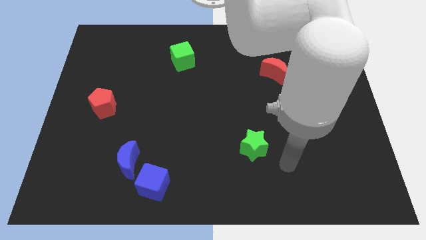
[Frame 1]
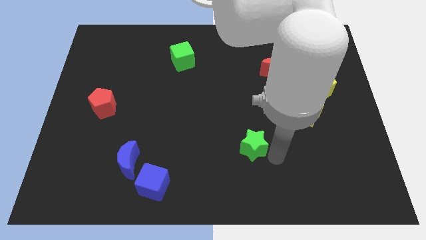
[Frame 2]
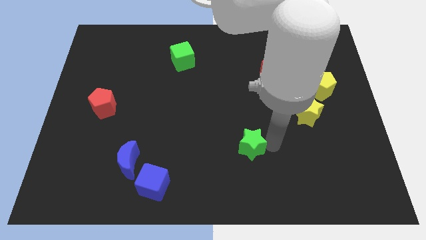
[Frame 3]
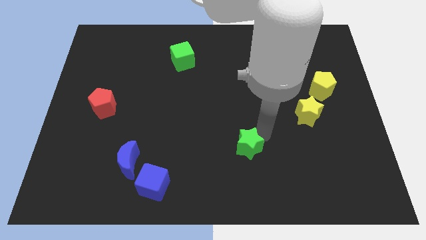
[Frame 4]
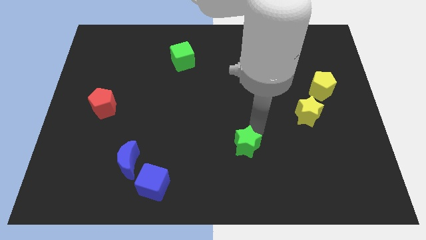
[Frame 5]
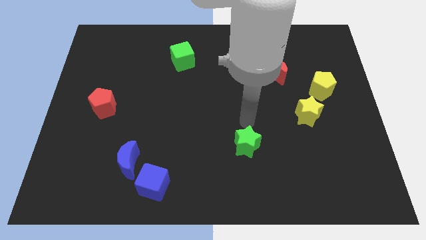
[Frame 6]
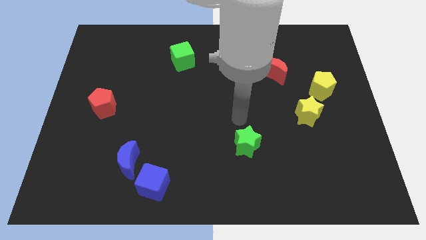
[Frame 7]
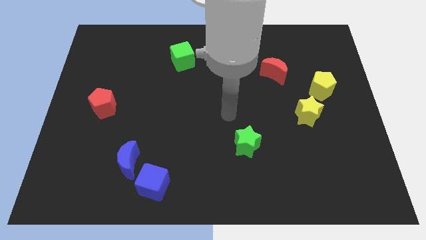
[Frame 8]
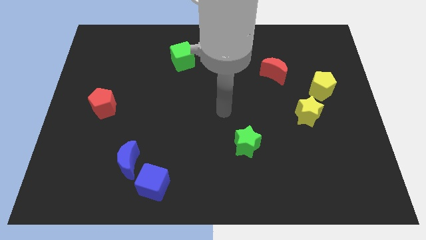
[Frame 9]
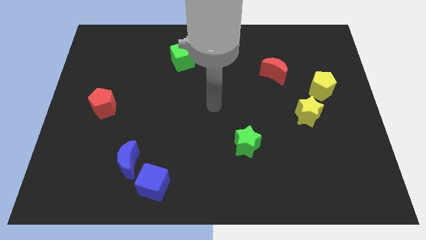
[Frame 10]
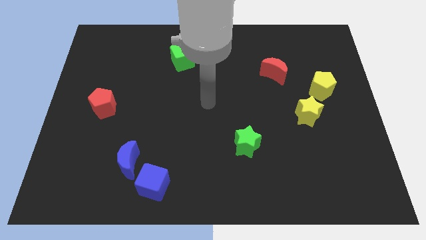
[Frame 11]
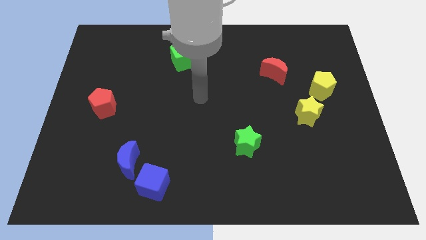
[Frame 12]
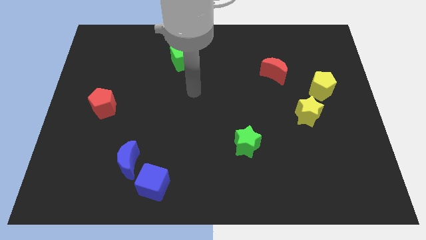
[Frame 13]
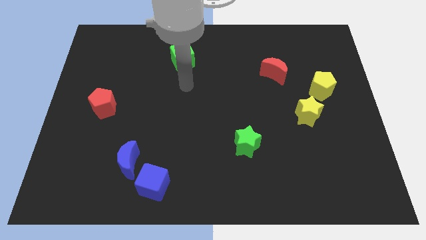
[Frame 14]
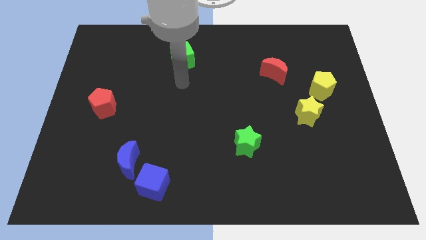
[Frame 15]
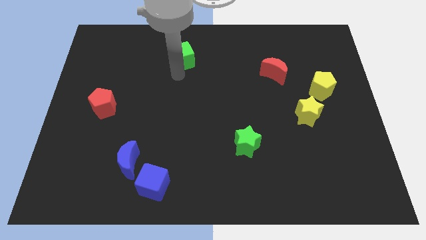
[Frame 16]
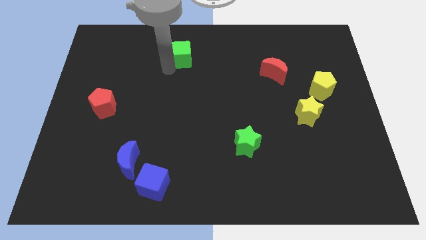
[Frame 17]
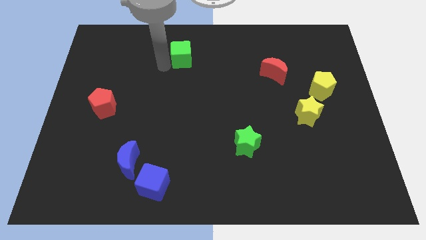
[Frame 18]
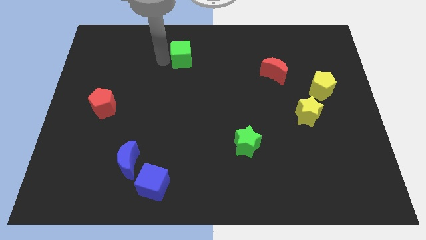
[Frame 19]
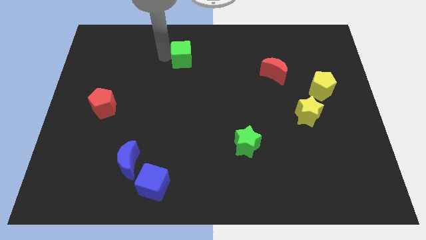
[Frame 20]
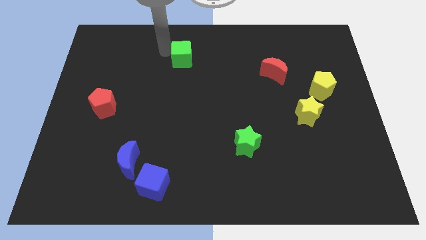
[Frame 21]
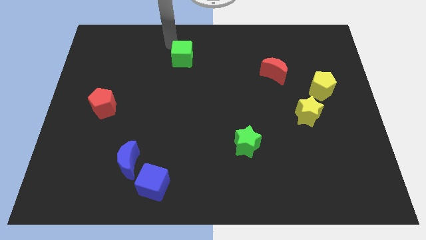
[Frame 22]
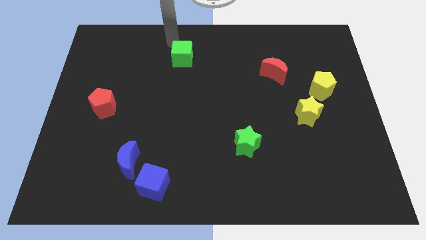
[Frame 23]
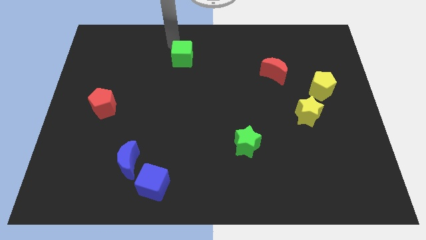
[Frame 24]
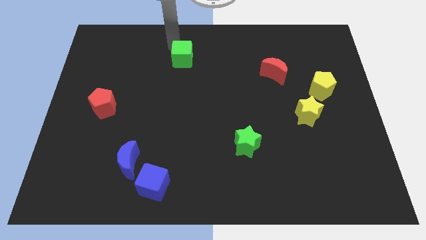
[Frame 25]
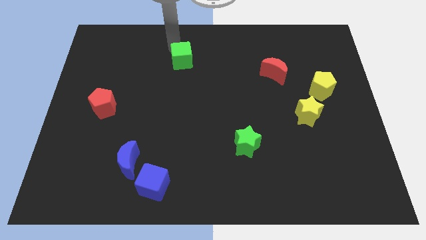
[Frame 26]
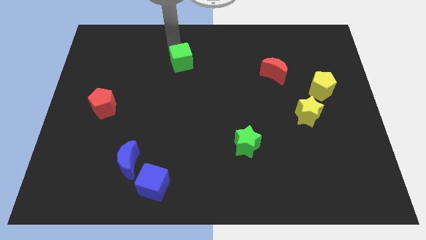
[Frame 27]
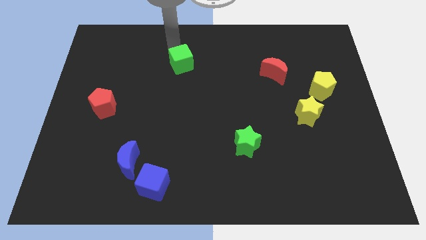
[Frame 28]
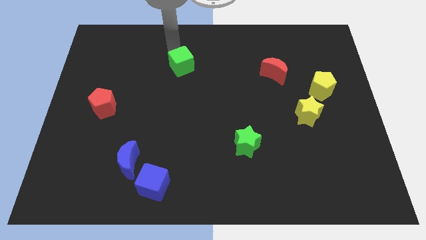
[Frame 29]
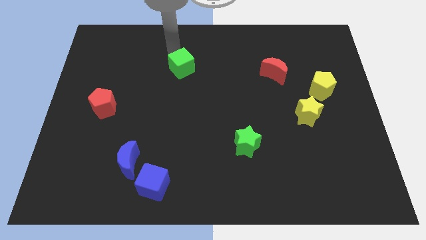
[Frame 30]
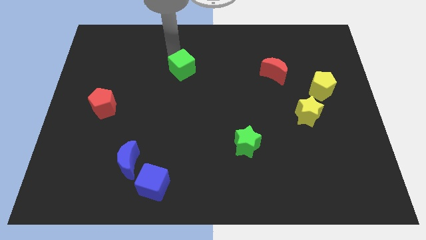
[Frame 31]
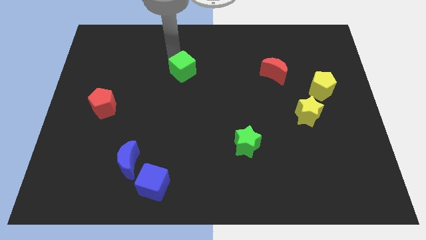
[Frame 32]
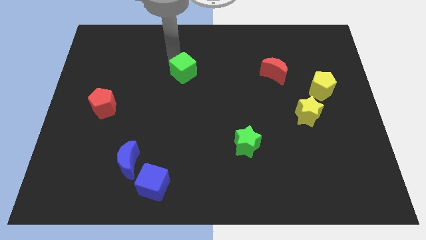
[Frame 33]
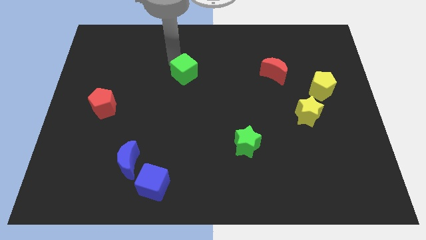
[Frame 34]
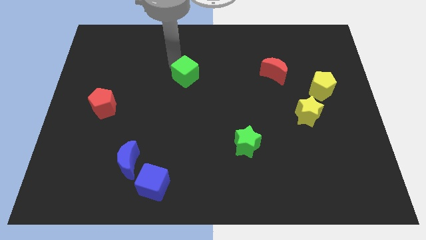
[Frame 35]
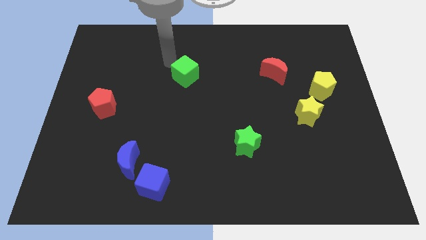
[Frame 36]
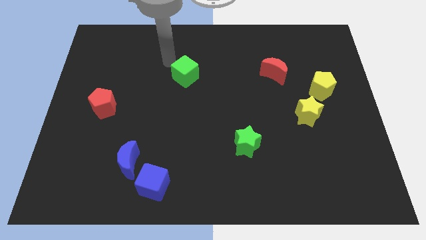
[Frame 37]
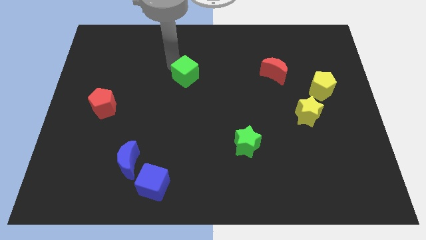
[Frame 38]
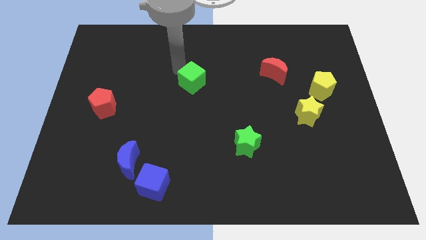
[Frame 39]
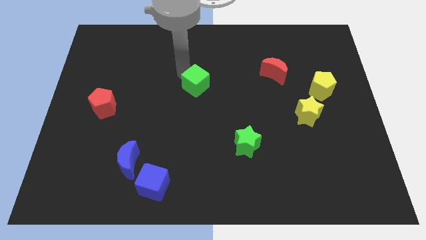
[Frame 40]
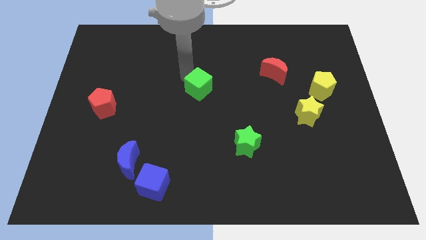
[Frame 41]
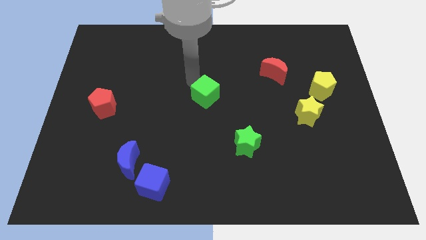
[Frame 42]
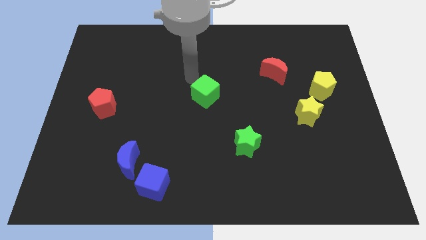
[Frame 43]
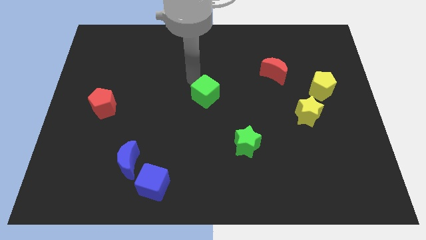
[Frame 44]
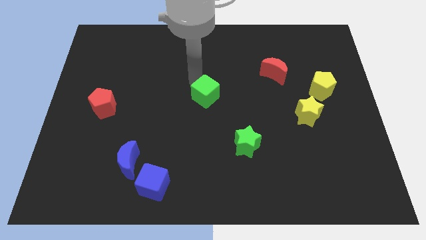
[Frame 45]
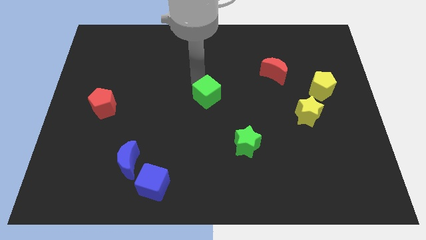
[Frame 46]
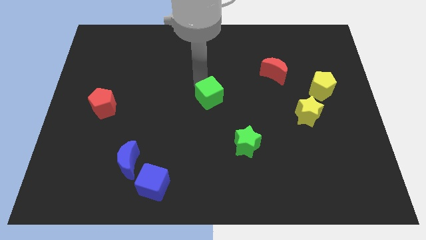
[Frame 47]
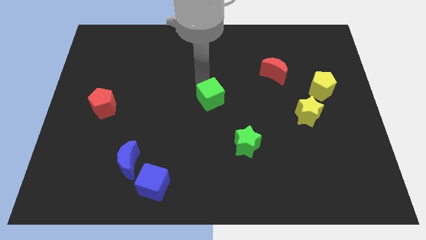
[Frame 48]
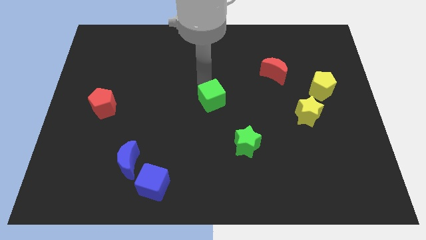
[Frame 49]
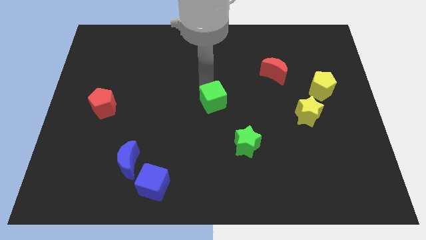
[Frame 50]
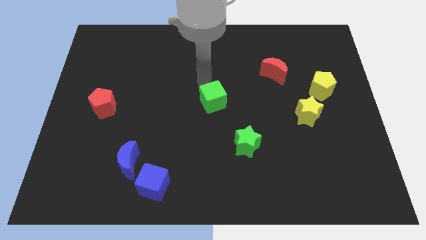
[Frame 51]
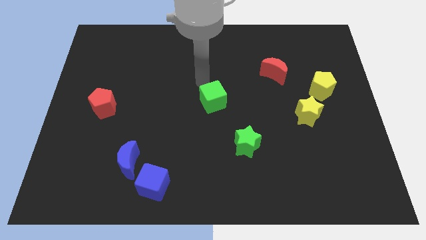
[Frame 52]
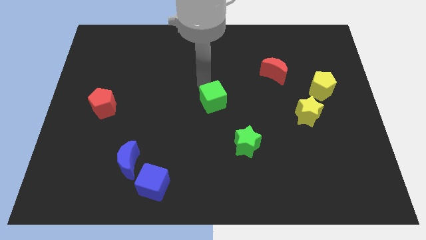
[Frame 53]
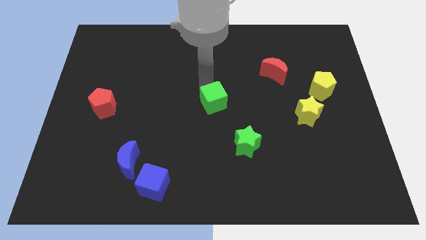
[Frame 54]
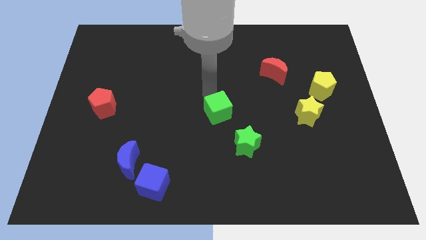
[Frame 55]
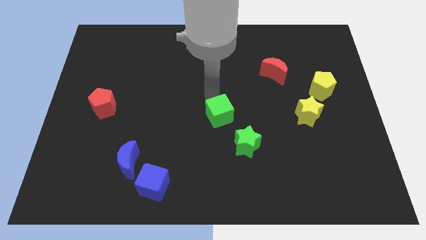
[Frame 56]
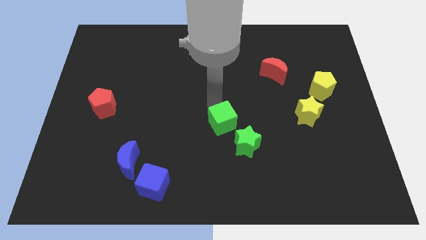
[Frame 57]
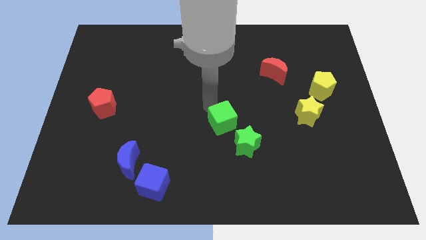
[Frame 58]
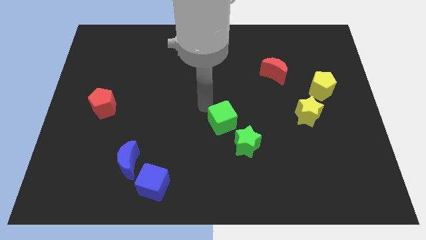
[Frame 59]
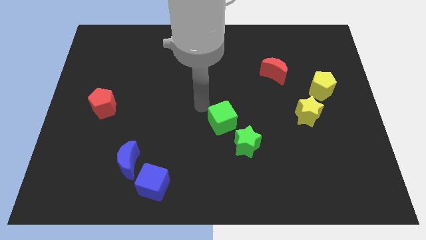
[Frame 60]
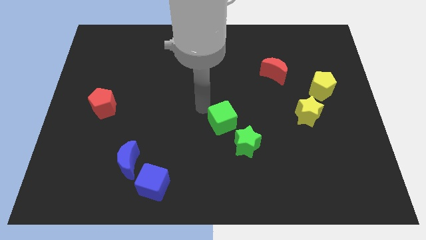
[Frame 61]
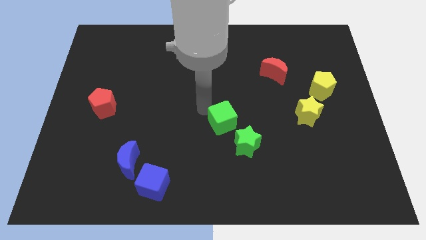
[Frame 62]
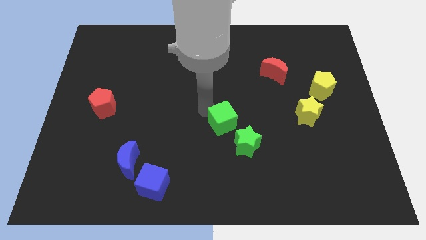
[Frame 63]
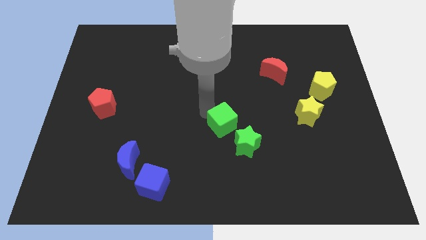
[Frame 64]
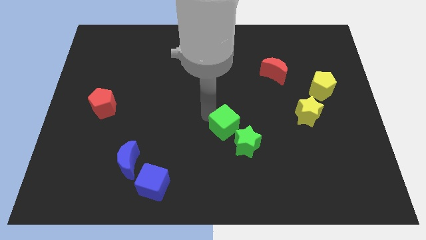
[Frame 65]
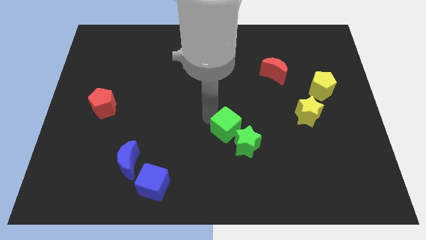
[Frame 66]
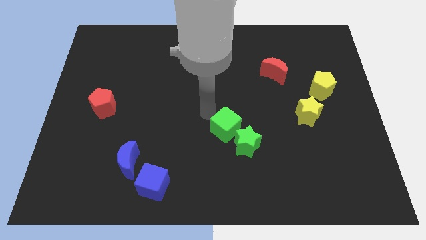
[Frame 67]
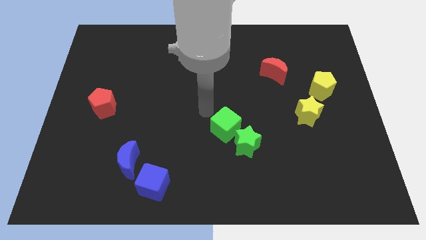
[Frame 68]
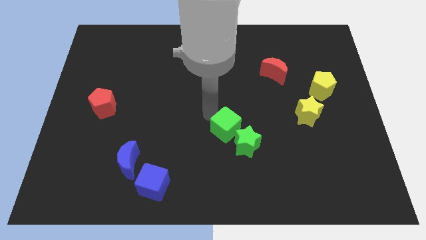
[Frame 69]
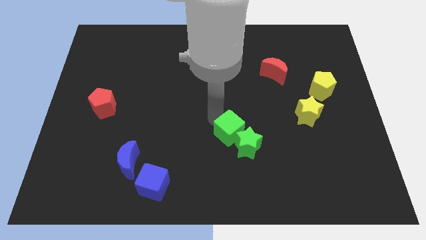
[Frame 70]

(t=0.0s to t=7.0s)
slide the green cube towards the green star
